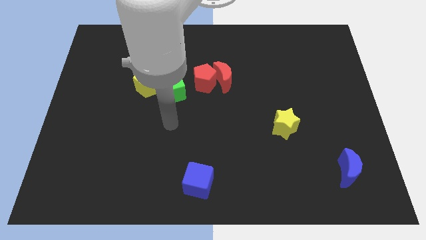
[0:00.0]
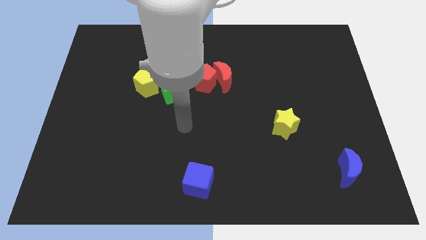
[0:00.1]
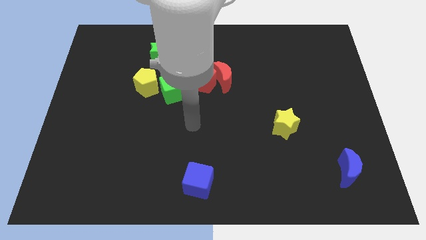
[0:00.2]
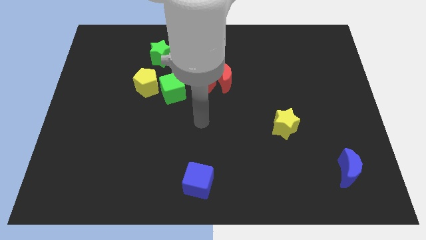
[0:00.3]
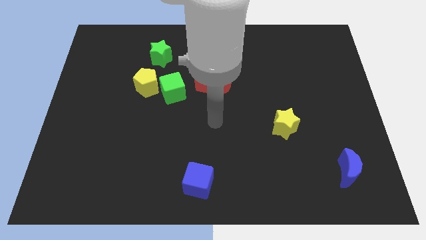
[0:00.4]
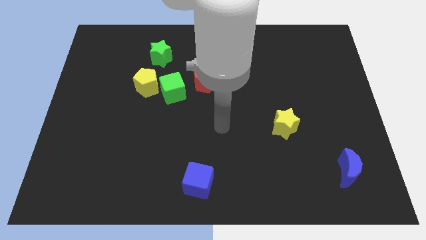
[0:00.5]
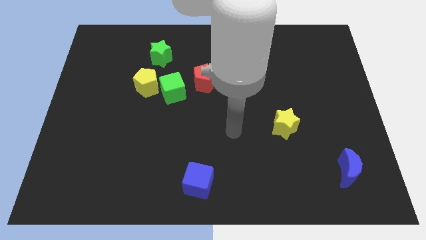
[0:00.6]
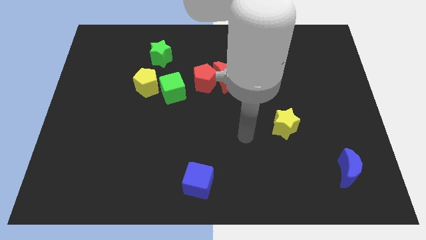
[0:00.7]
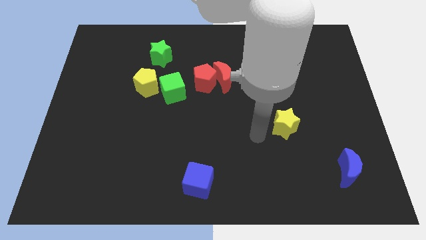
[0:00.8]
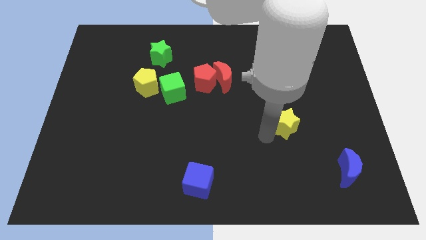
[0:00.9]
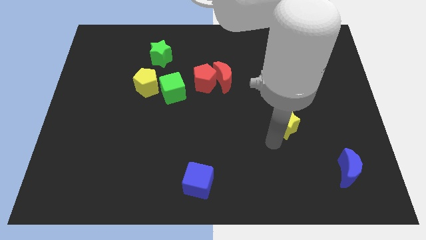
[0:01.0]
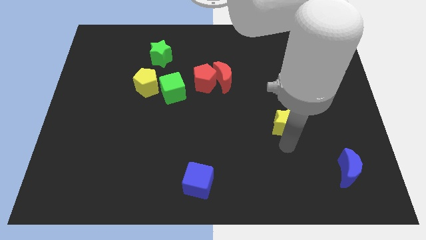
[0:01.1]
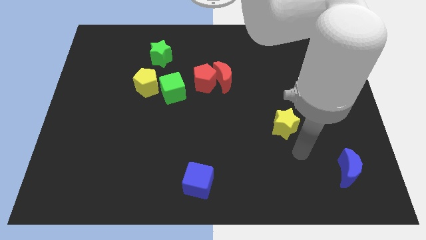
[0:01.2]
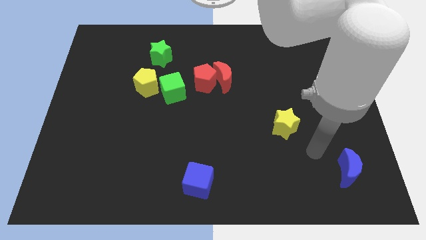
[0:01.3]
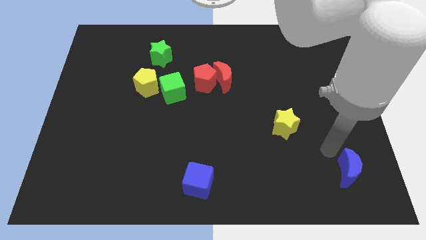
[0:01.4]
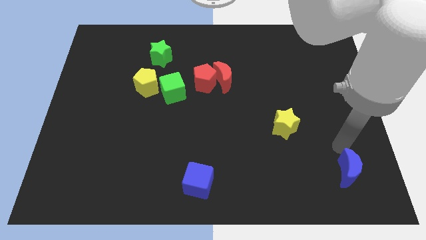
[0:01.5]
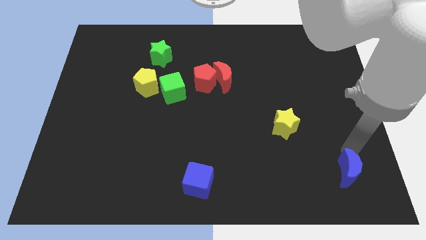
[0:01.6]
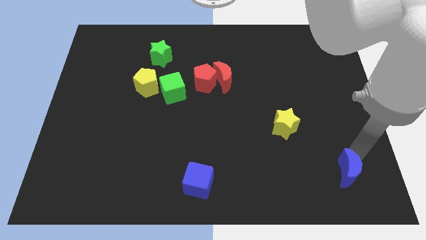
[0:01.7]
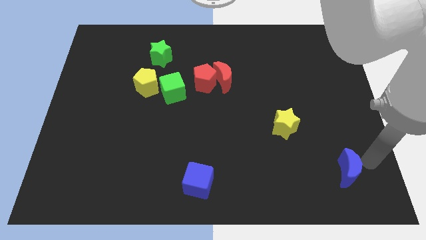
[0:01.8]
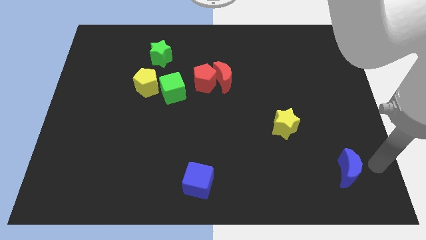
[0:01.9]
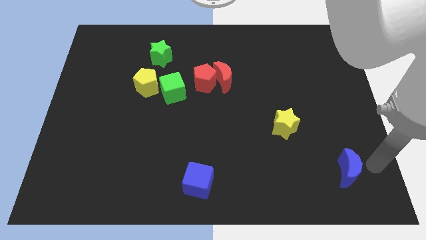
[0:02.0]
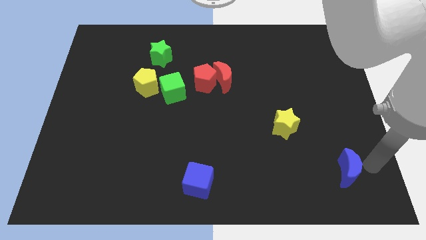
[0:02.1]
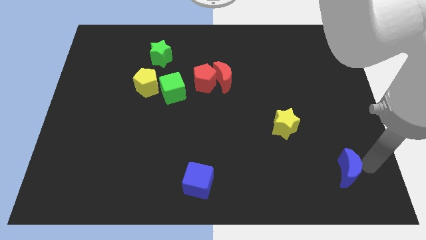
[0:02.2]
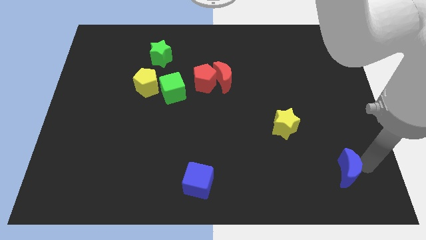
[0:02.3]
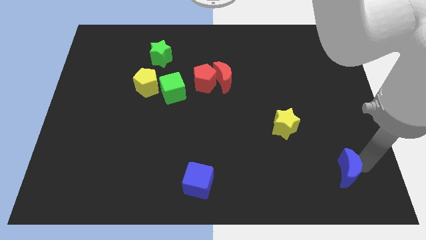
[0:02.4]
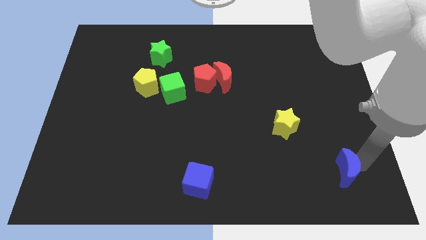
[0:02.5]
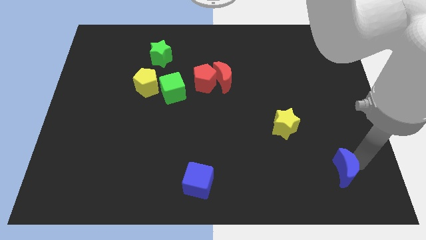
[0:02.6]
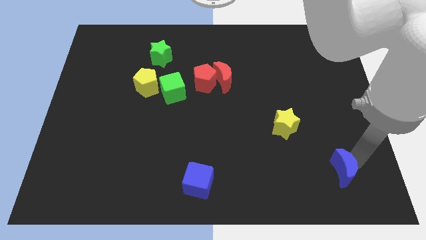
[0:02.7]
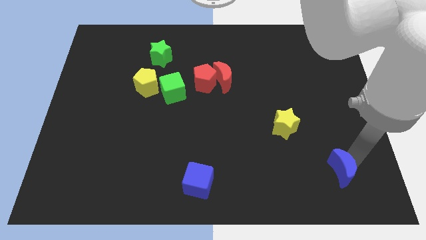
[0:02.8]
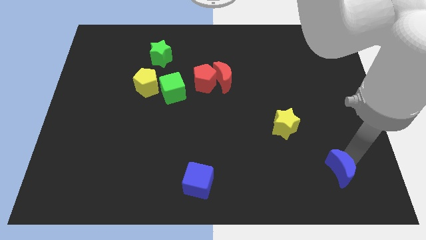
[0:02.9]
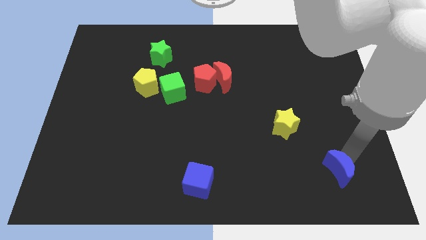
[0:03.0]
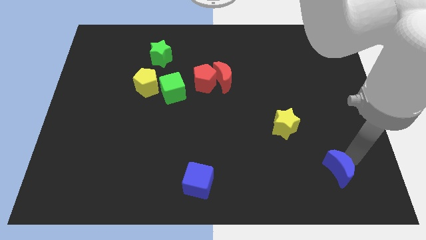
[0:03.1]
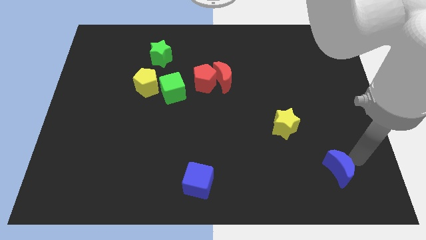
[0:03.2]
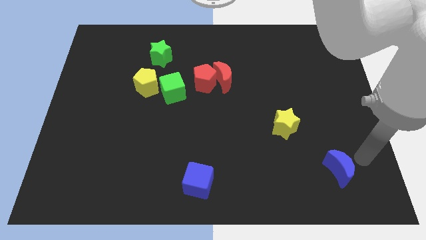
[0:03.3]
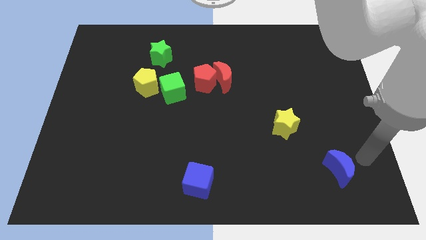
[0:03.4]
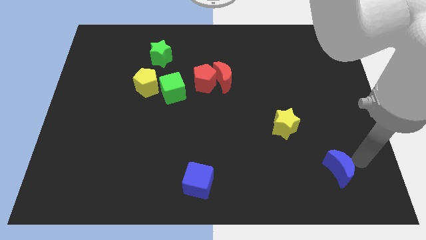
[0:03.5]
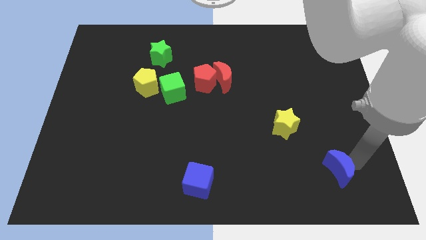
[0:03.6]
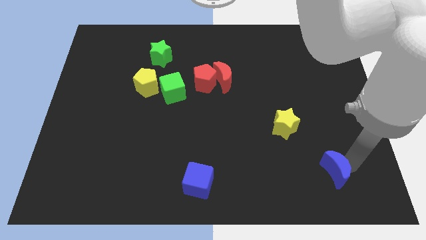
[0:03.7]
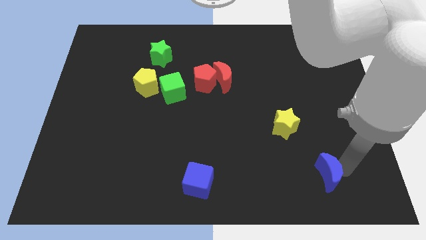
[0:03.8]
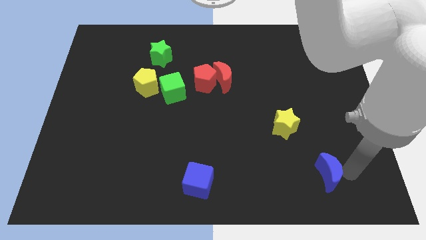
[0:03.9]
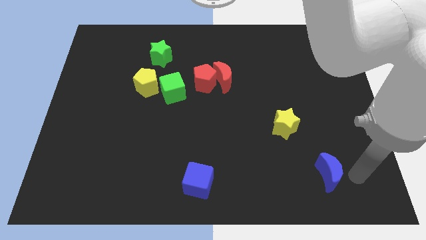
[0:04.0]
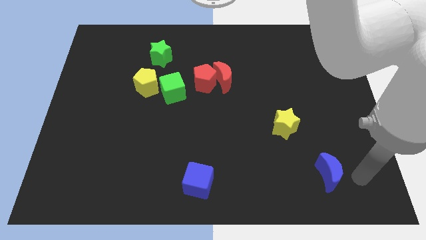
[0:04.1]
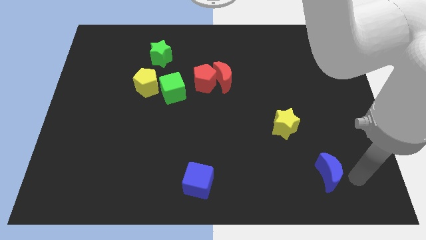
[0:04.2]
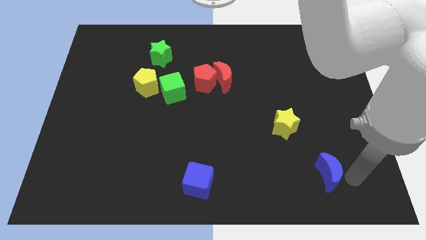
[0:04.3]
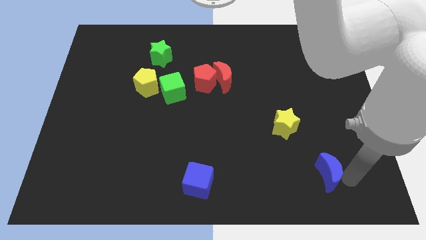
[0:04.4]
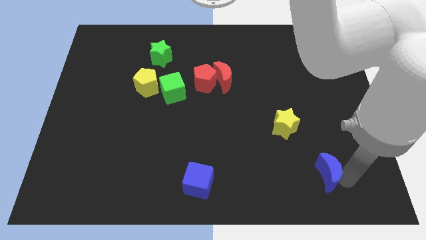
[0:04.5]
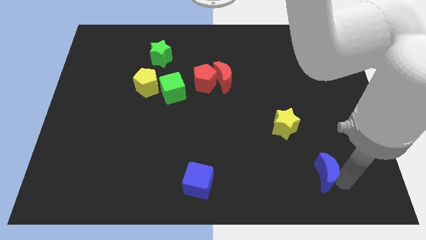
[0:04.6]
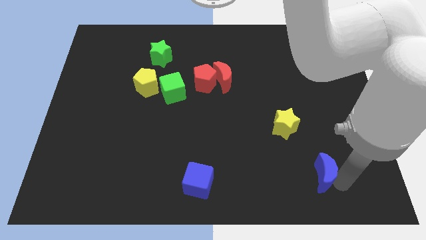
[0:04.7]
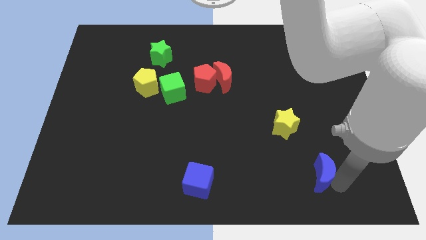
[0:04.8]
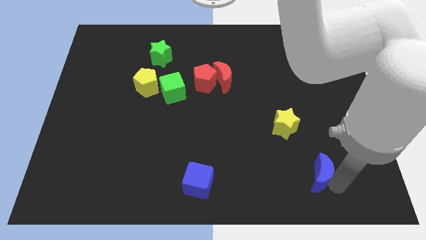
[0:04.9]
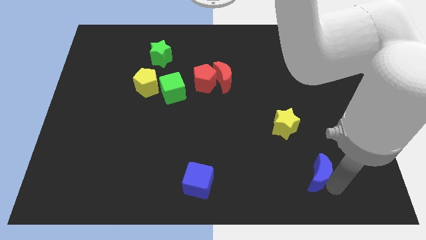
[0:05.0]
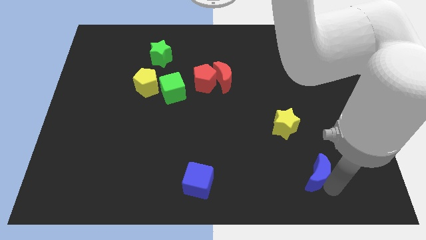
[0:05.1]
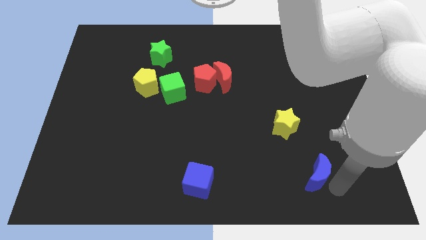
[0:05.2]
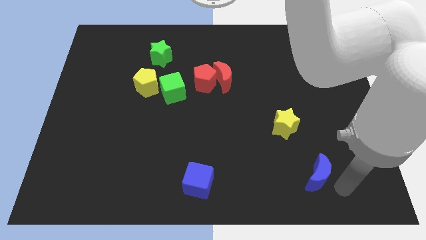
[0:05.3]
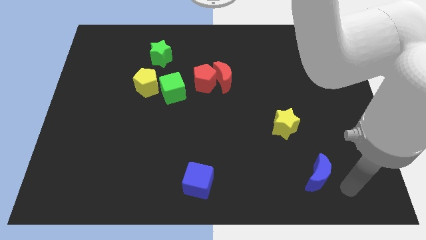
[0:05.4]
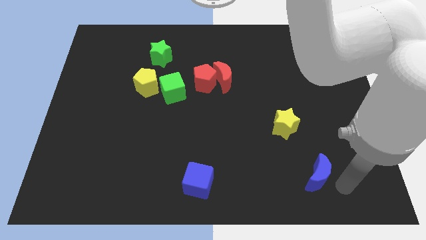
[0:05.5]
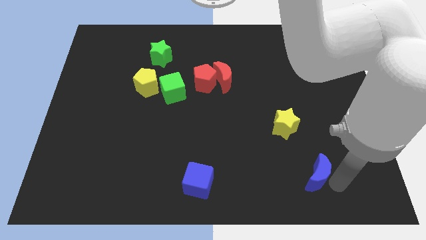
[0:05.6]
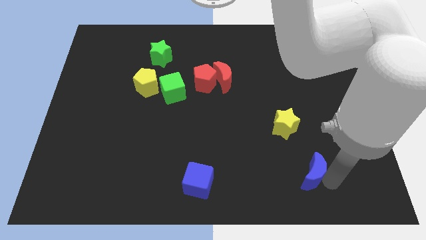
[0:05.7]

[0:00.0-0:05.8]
slightly move the blue moon to the left

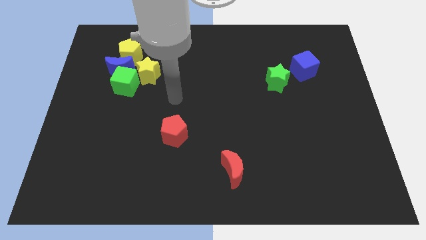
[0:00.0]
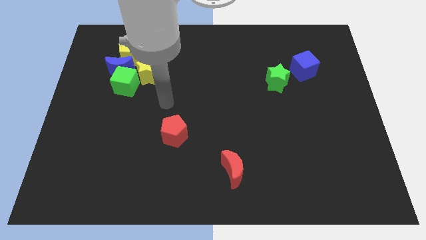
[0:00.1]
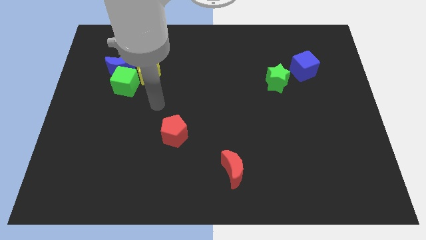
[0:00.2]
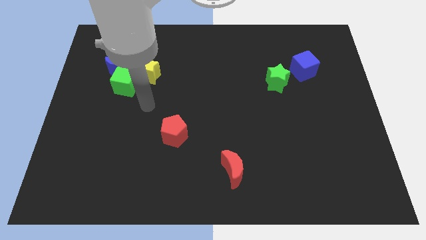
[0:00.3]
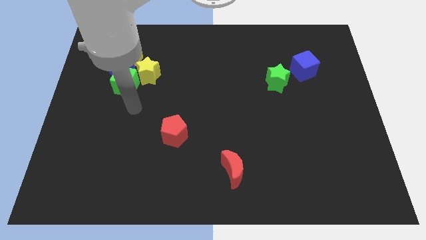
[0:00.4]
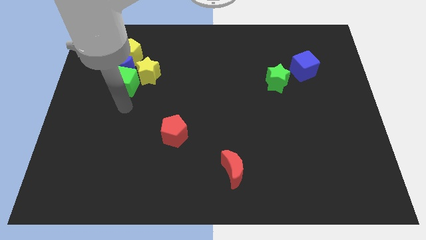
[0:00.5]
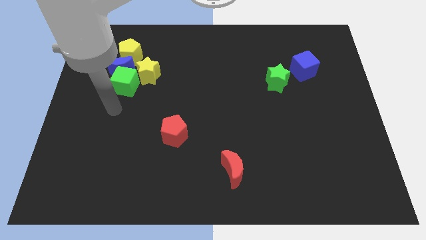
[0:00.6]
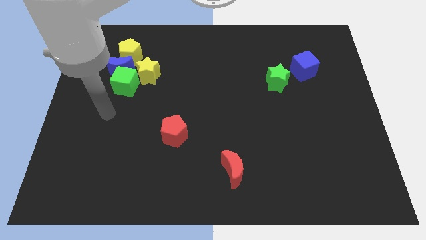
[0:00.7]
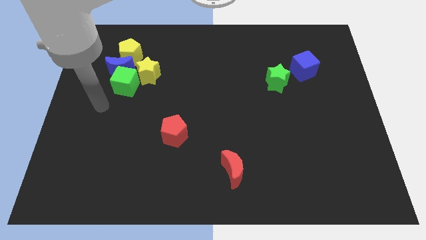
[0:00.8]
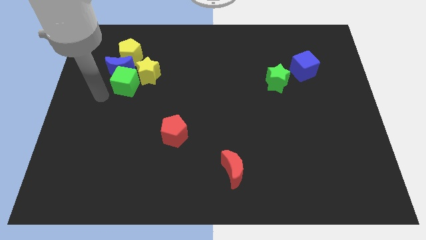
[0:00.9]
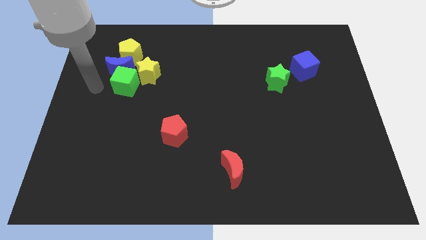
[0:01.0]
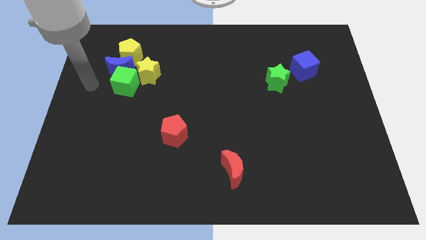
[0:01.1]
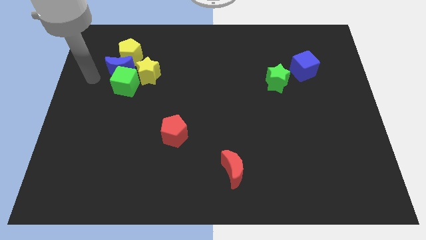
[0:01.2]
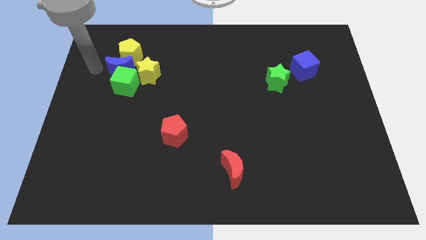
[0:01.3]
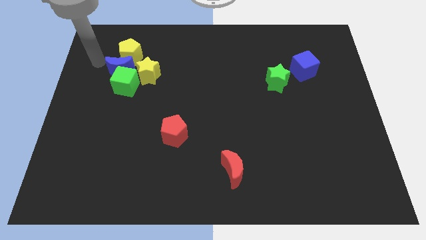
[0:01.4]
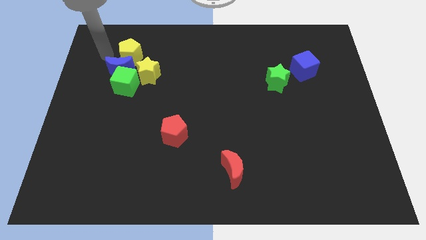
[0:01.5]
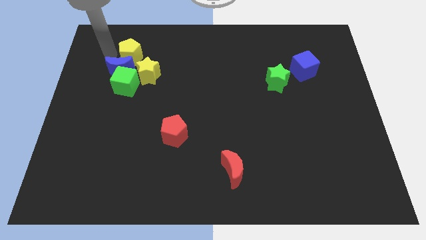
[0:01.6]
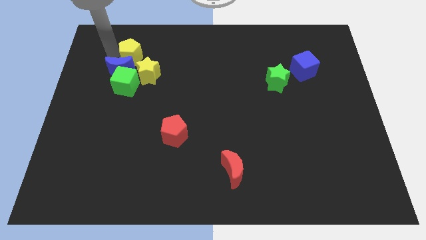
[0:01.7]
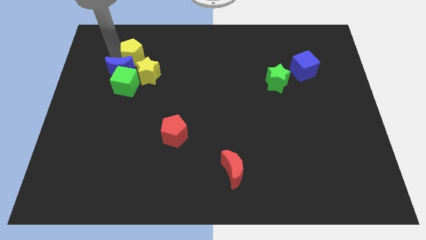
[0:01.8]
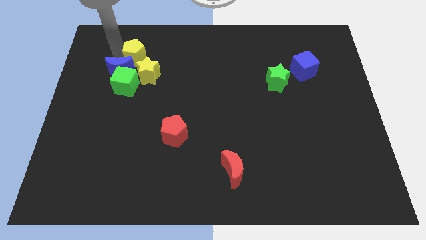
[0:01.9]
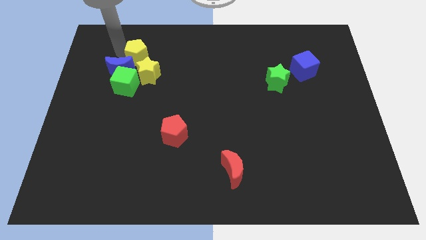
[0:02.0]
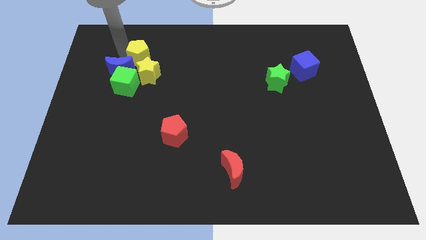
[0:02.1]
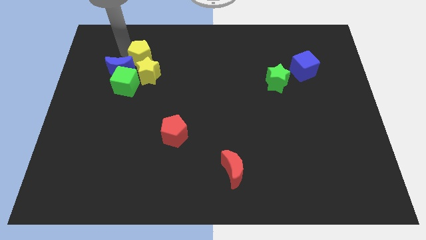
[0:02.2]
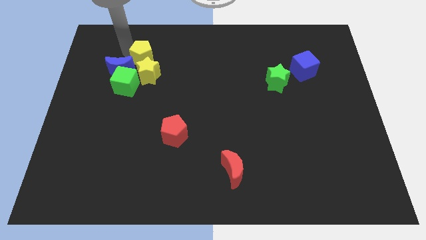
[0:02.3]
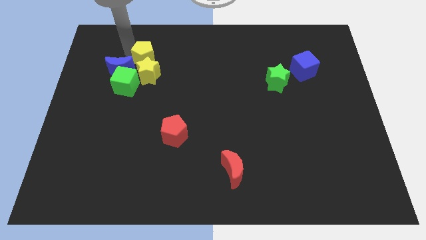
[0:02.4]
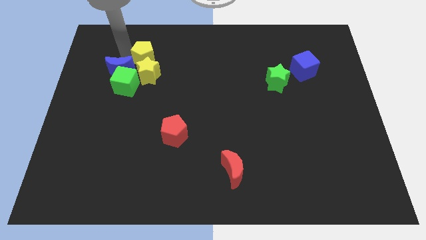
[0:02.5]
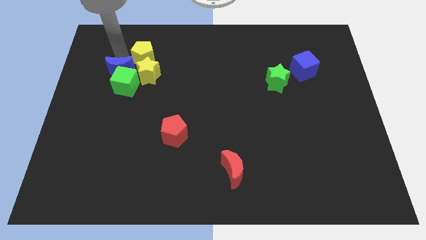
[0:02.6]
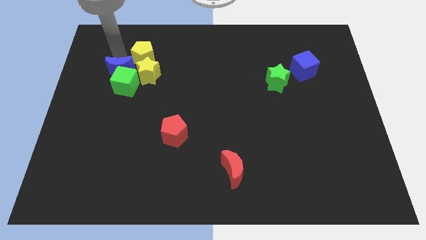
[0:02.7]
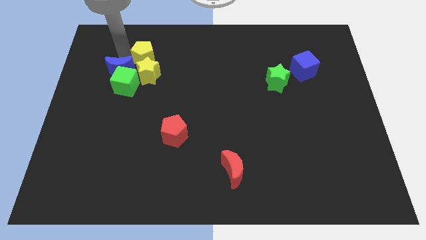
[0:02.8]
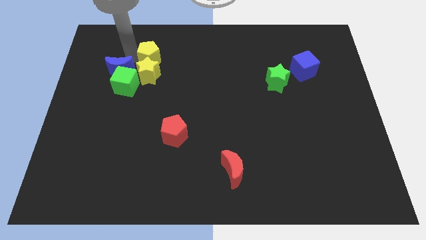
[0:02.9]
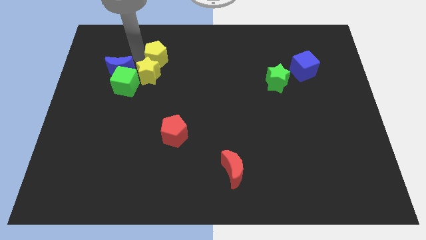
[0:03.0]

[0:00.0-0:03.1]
slightly slide the yellow pentagon to the right
